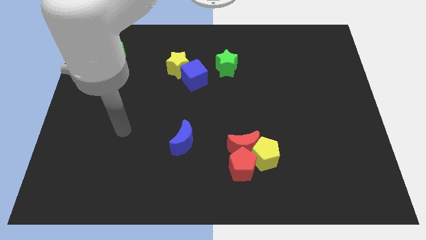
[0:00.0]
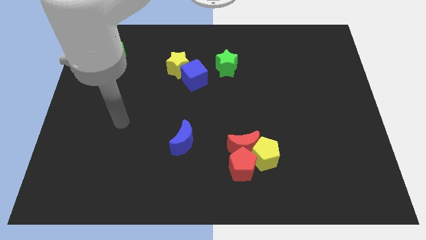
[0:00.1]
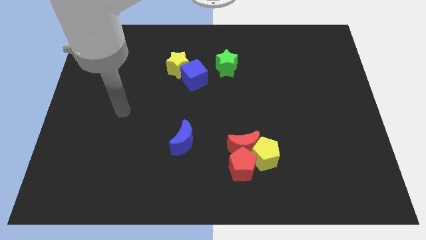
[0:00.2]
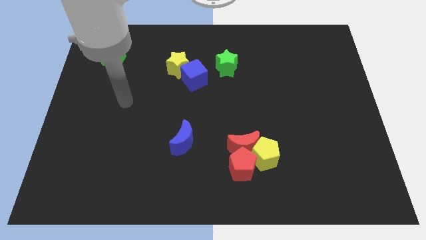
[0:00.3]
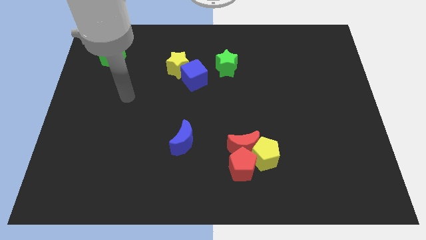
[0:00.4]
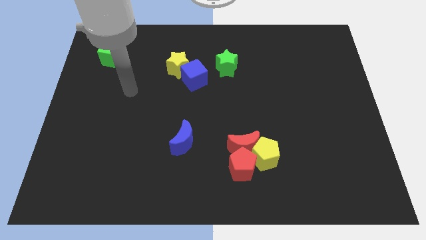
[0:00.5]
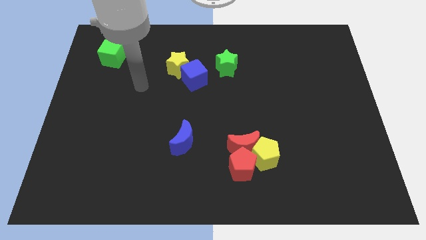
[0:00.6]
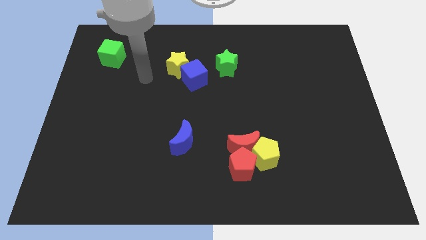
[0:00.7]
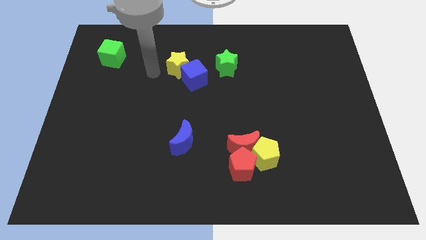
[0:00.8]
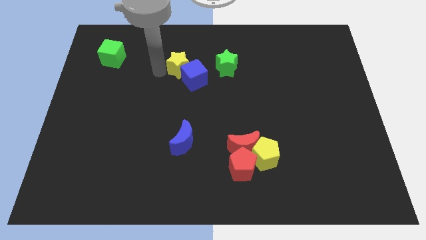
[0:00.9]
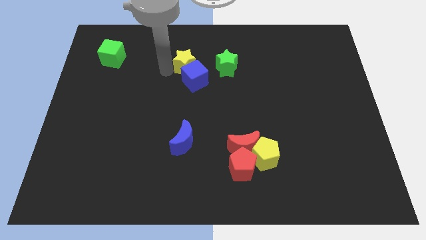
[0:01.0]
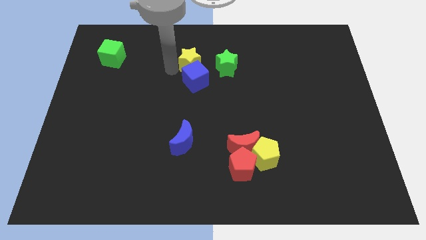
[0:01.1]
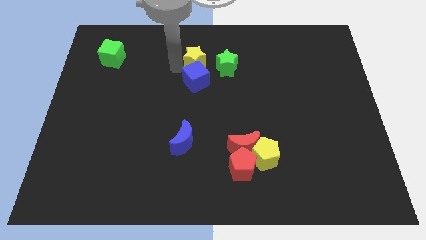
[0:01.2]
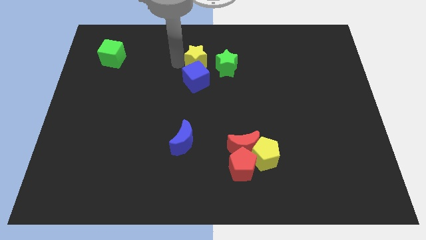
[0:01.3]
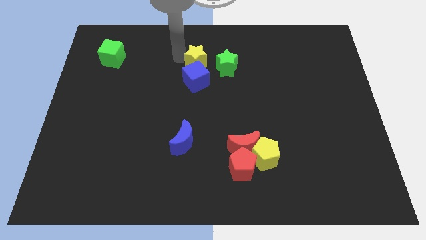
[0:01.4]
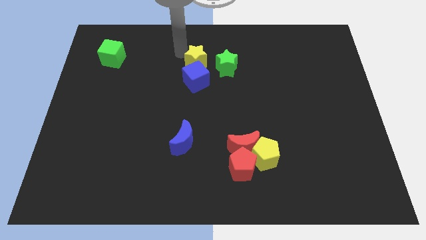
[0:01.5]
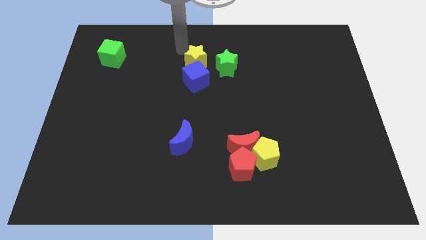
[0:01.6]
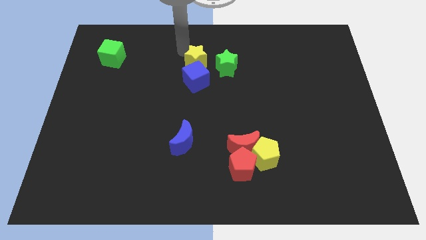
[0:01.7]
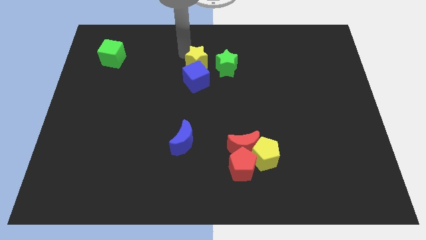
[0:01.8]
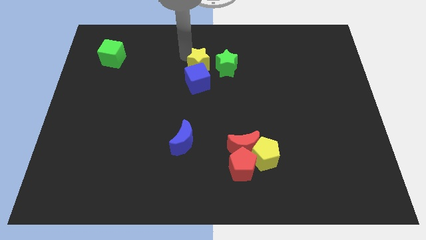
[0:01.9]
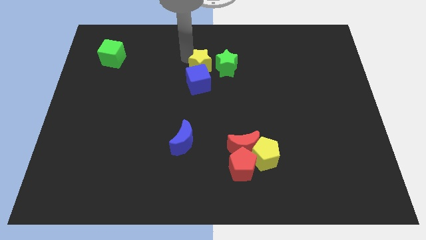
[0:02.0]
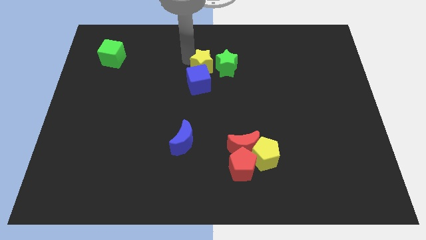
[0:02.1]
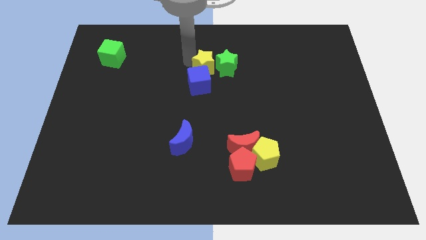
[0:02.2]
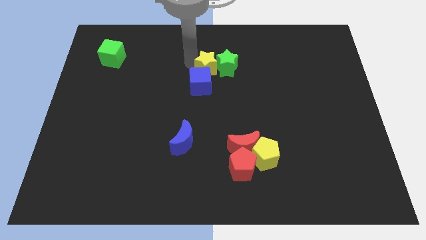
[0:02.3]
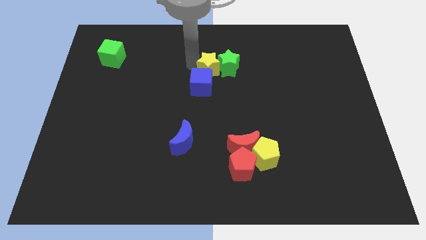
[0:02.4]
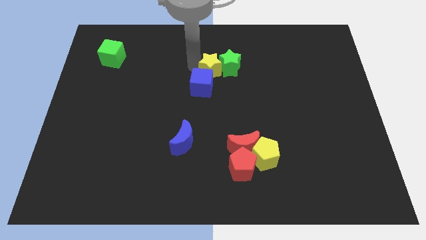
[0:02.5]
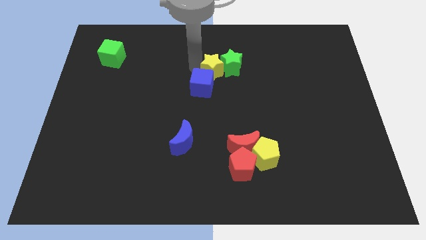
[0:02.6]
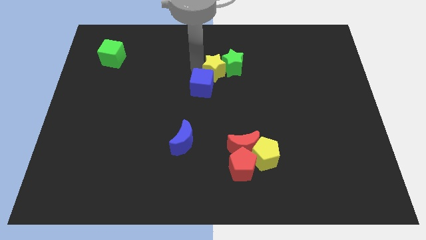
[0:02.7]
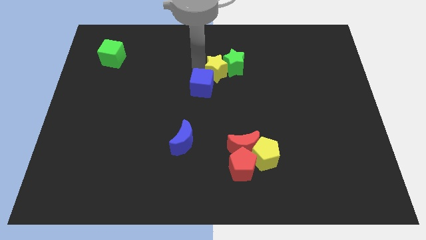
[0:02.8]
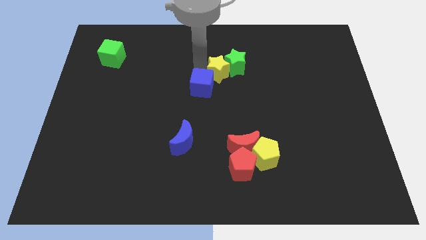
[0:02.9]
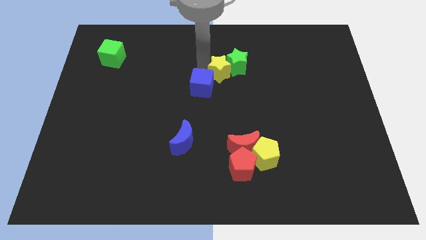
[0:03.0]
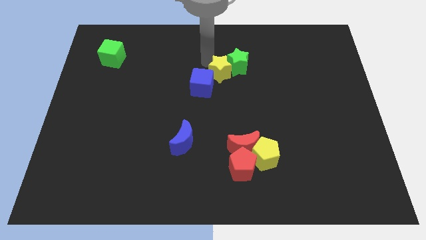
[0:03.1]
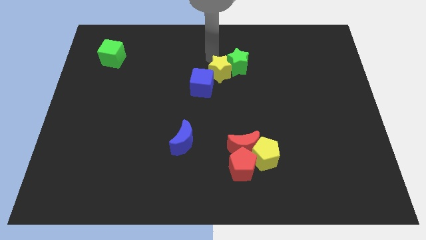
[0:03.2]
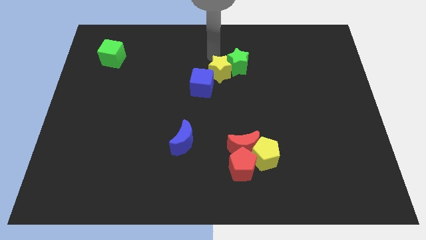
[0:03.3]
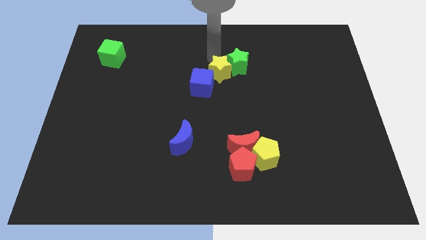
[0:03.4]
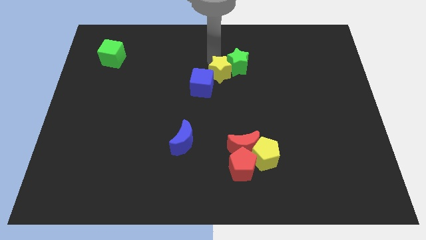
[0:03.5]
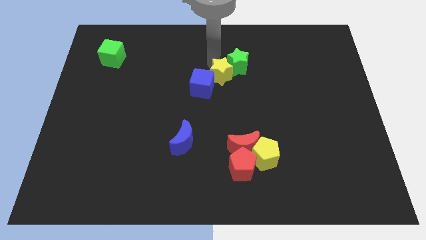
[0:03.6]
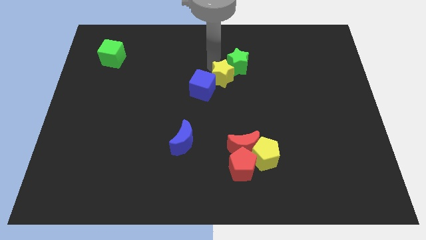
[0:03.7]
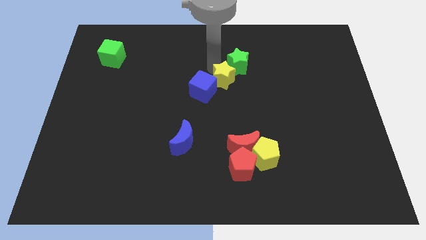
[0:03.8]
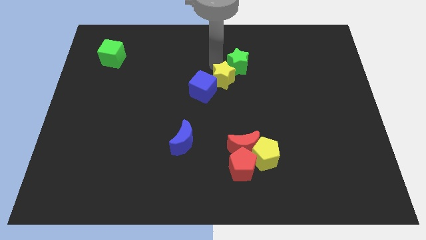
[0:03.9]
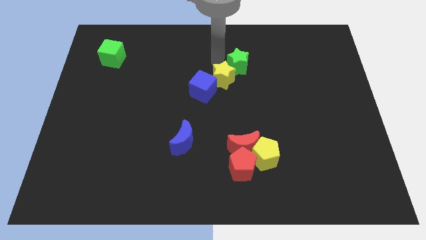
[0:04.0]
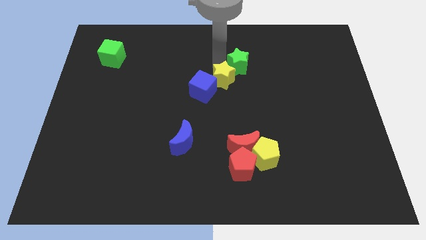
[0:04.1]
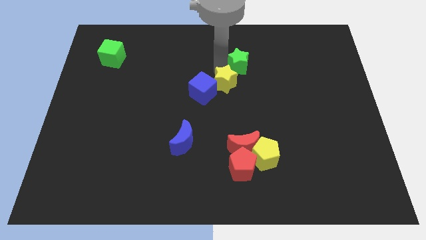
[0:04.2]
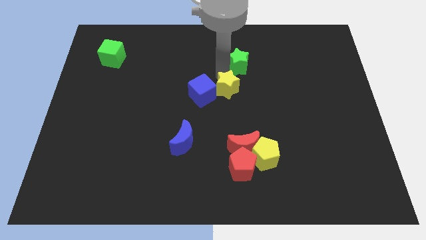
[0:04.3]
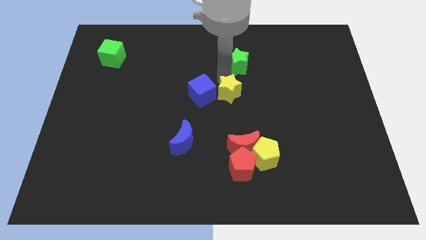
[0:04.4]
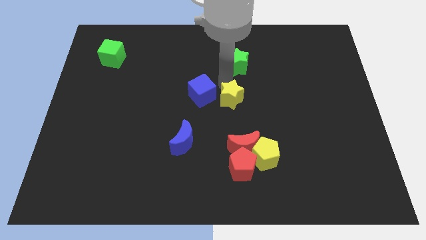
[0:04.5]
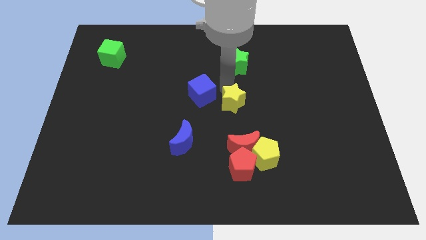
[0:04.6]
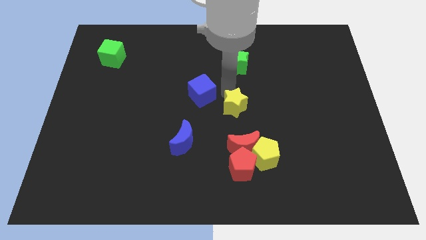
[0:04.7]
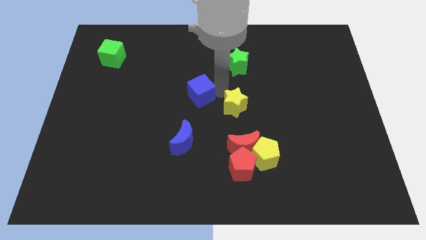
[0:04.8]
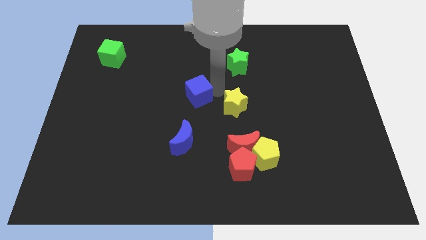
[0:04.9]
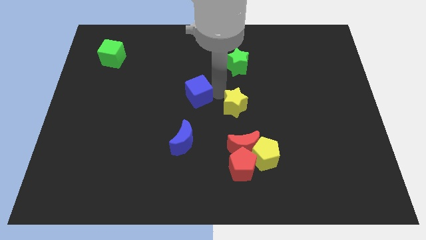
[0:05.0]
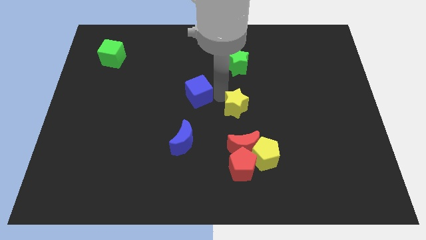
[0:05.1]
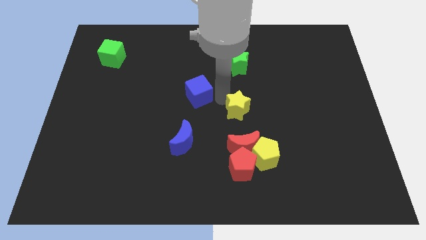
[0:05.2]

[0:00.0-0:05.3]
move the yellow star diagonally down and to the right

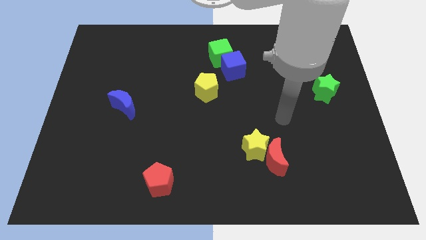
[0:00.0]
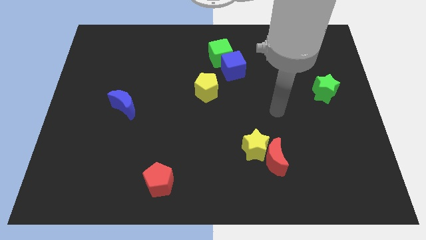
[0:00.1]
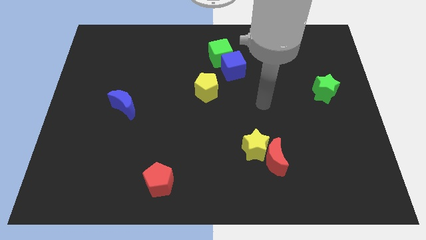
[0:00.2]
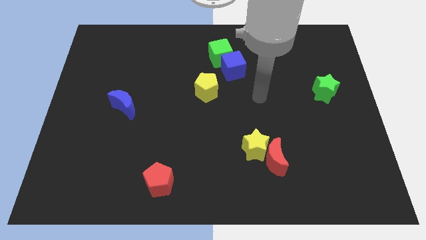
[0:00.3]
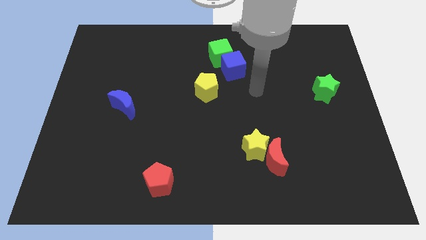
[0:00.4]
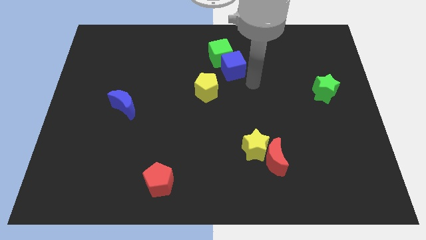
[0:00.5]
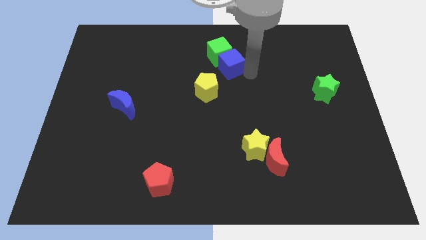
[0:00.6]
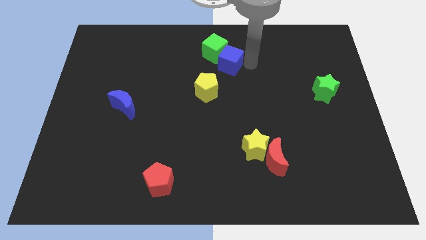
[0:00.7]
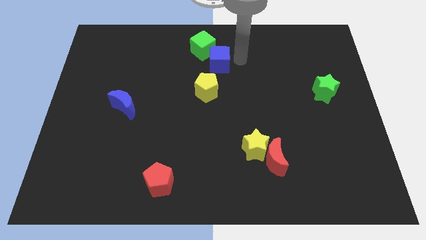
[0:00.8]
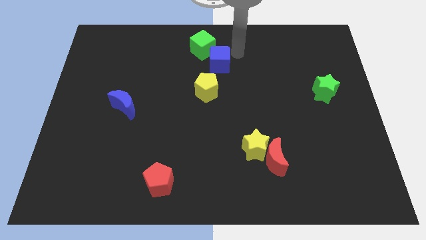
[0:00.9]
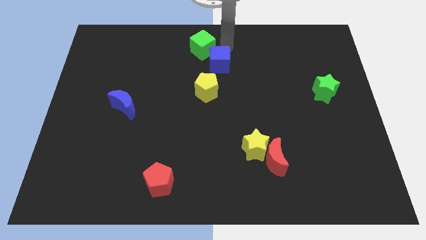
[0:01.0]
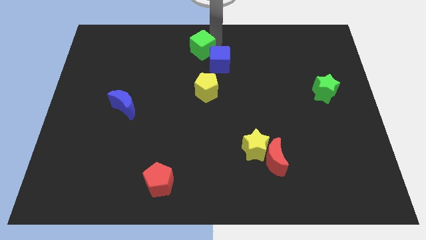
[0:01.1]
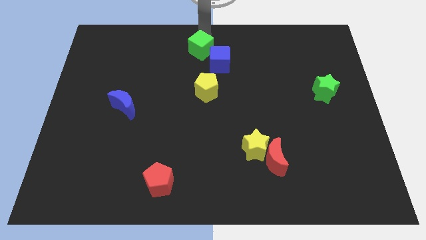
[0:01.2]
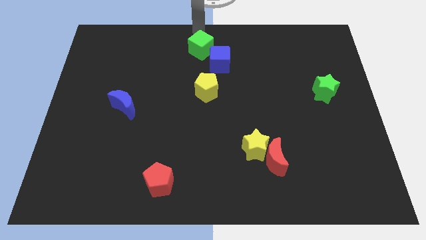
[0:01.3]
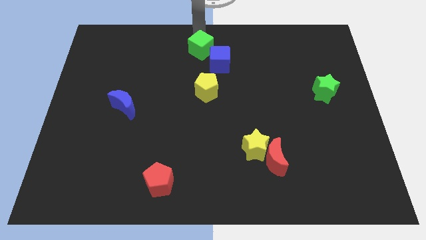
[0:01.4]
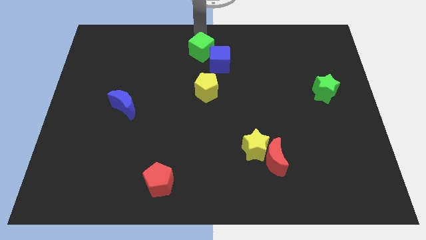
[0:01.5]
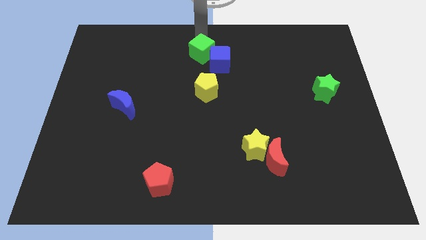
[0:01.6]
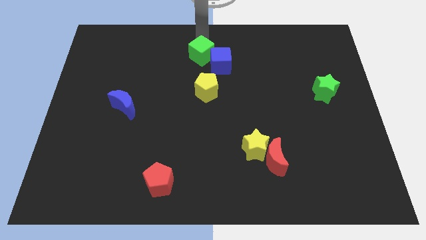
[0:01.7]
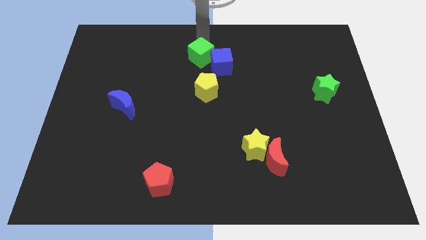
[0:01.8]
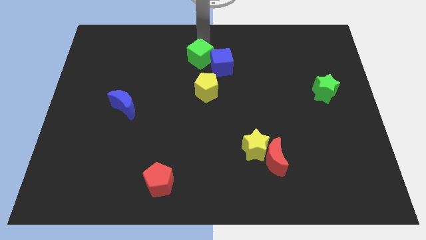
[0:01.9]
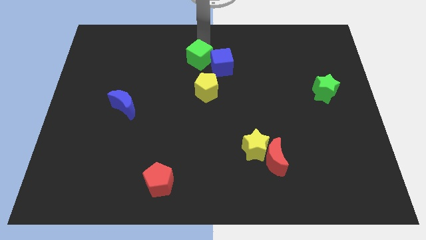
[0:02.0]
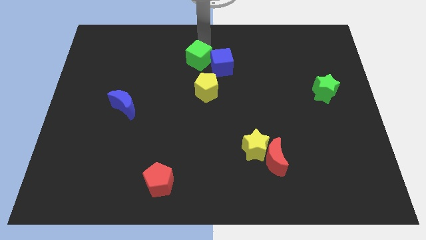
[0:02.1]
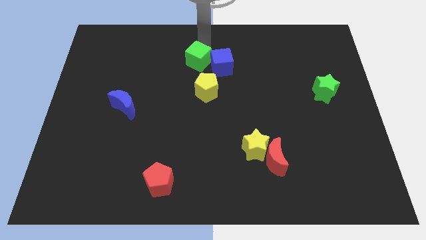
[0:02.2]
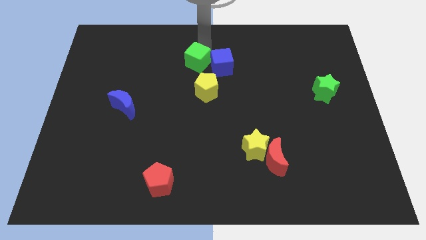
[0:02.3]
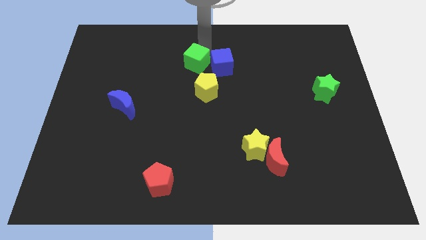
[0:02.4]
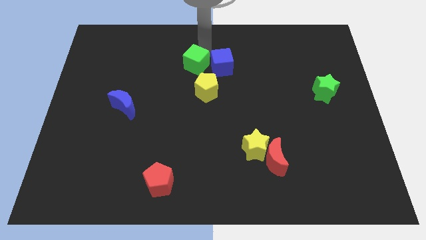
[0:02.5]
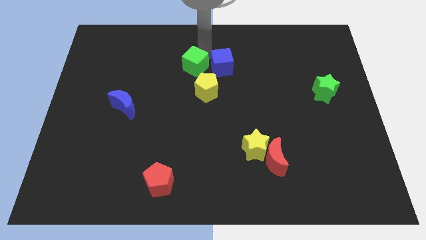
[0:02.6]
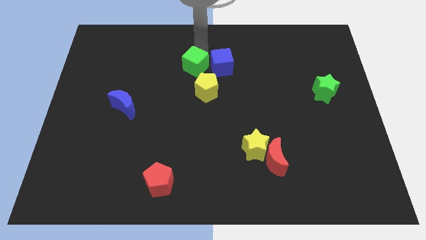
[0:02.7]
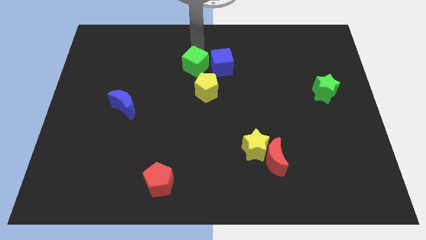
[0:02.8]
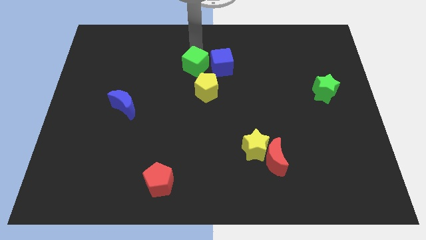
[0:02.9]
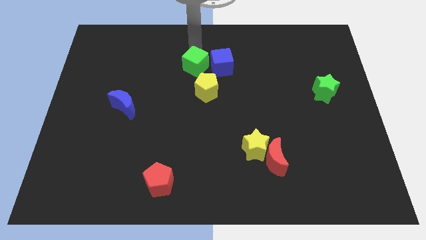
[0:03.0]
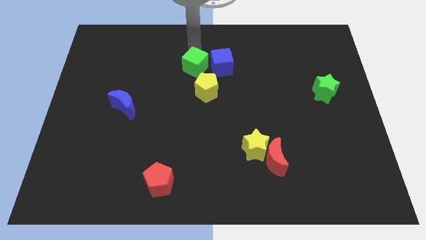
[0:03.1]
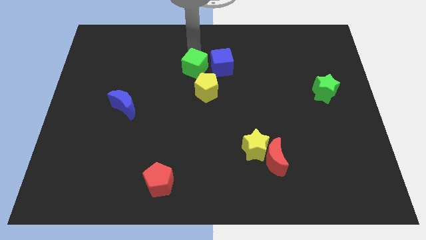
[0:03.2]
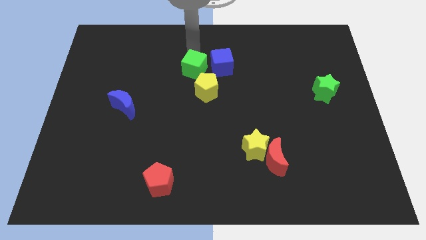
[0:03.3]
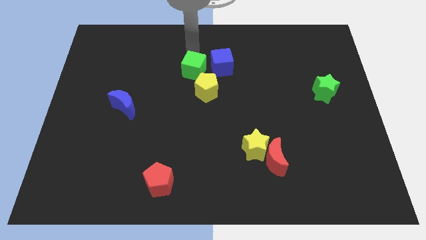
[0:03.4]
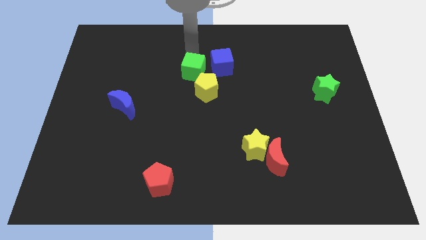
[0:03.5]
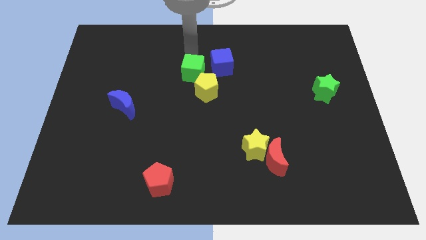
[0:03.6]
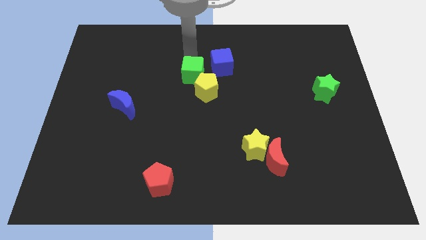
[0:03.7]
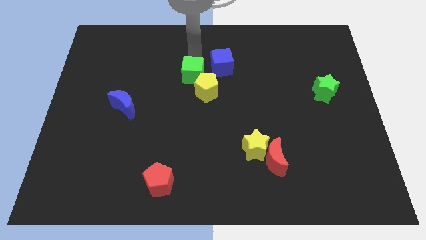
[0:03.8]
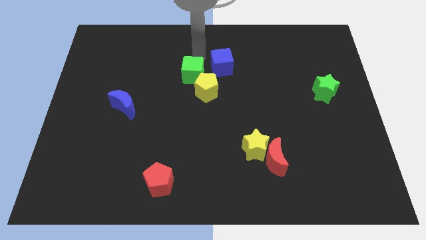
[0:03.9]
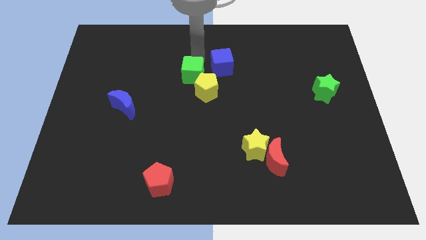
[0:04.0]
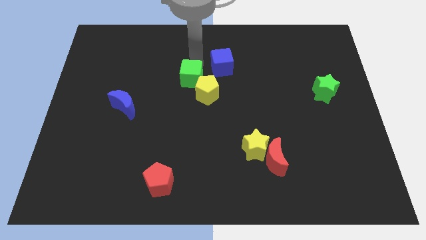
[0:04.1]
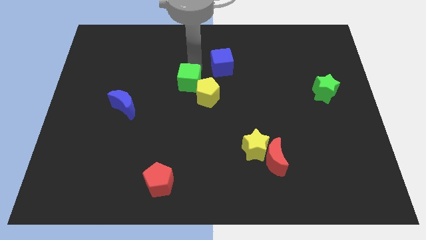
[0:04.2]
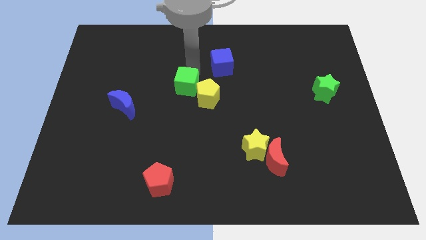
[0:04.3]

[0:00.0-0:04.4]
slide the green cube downwards a little
